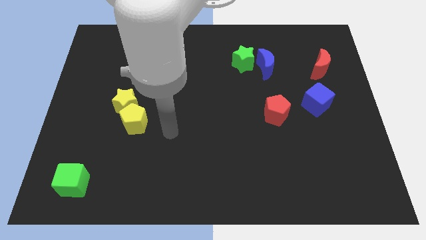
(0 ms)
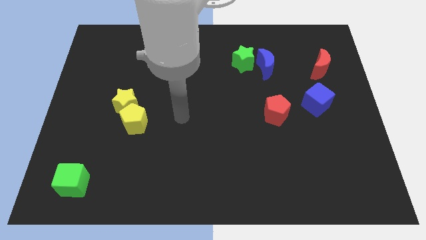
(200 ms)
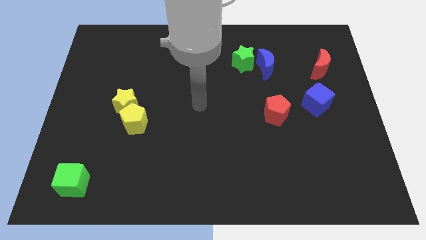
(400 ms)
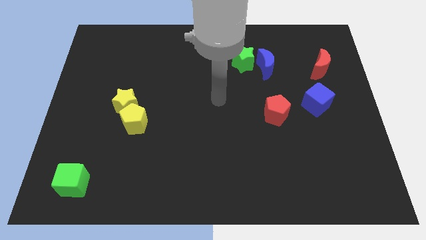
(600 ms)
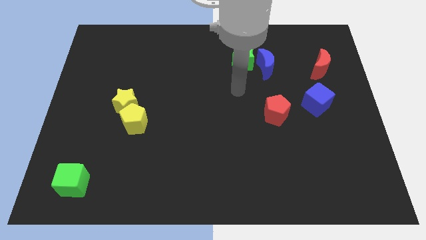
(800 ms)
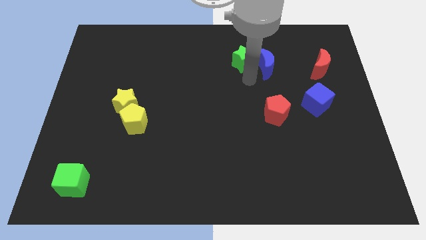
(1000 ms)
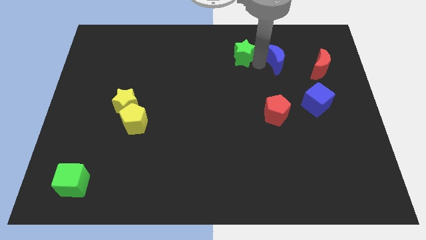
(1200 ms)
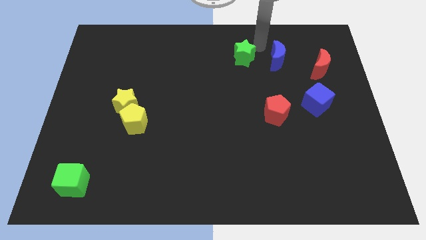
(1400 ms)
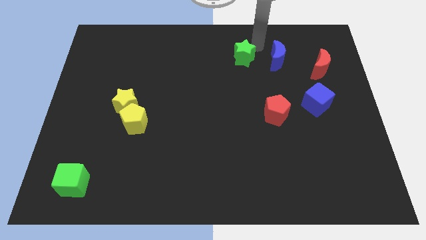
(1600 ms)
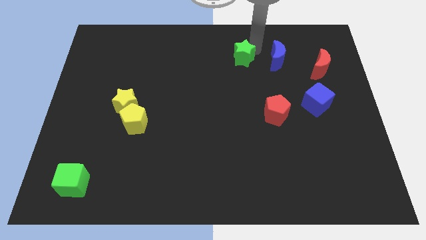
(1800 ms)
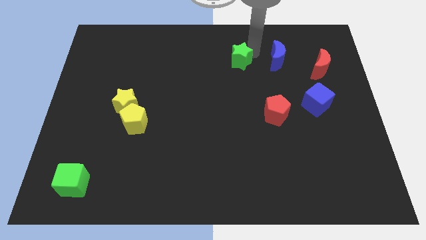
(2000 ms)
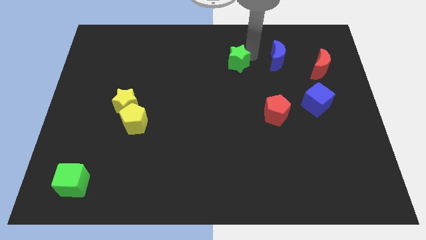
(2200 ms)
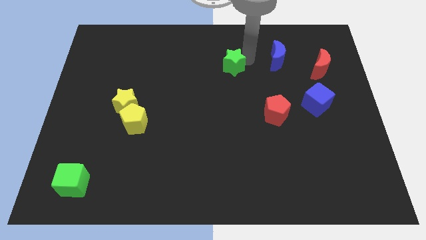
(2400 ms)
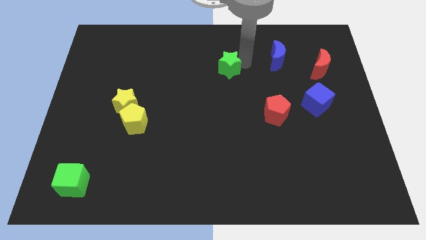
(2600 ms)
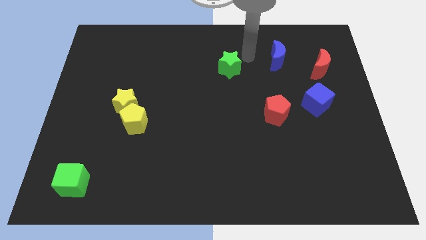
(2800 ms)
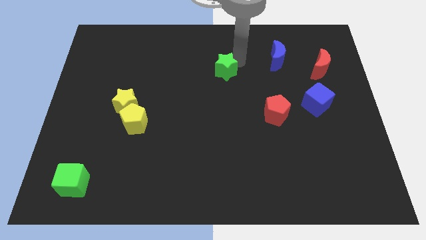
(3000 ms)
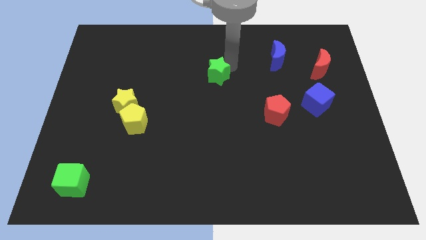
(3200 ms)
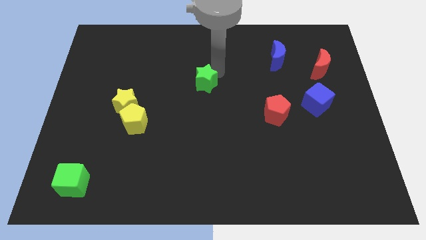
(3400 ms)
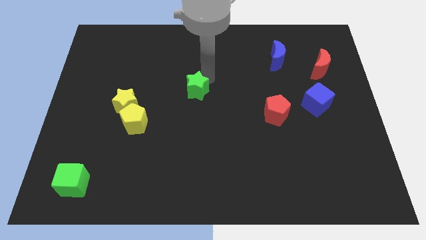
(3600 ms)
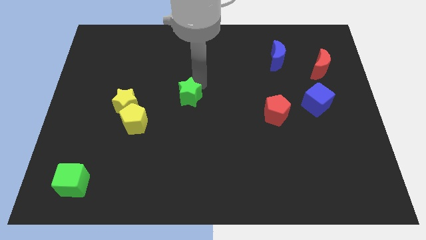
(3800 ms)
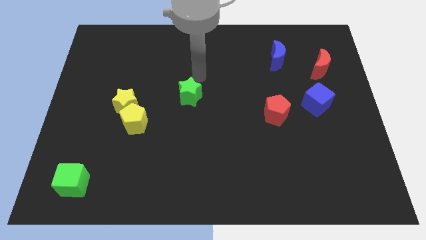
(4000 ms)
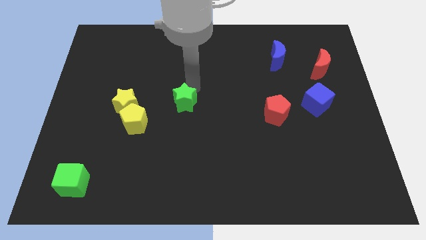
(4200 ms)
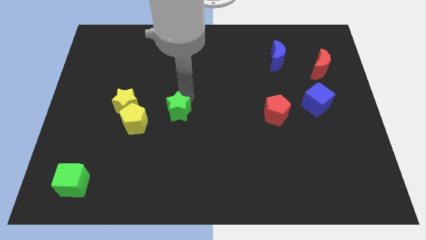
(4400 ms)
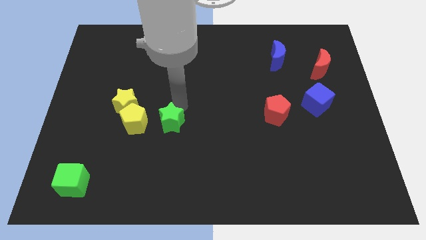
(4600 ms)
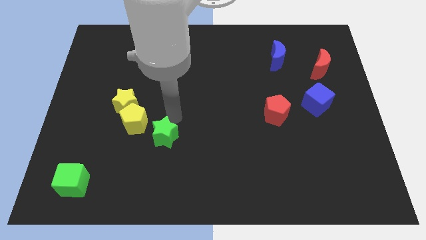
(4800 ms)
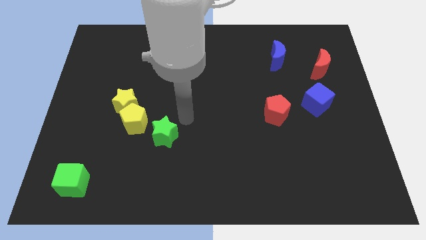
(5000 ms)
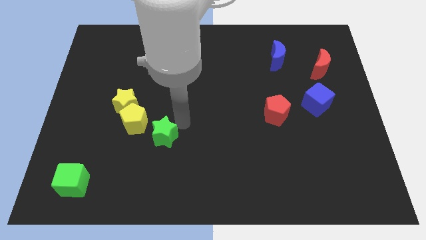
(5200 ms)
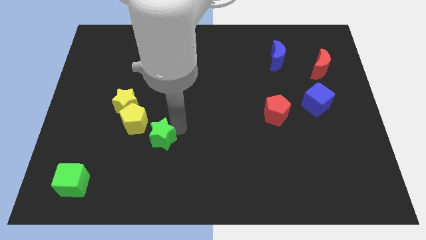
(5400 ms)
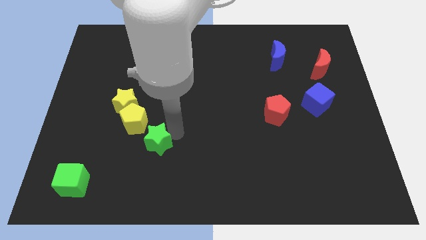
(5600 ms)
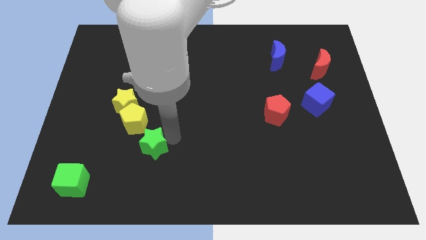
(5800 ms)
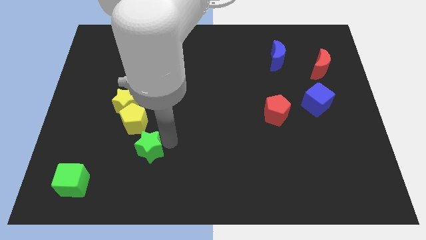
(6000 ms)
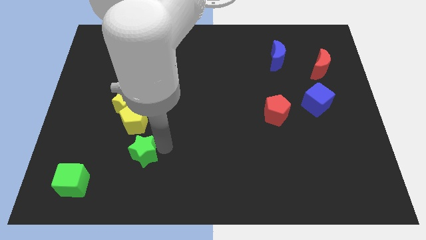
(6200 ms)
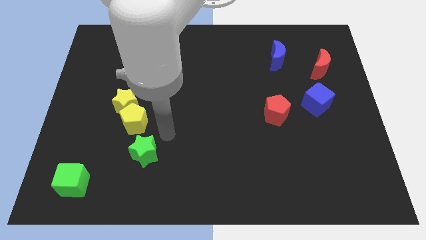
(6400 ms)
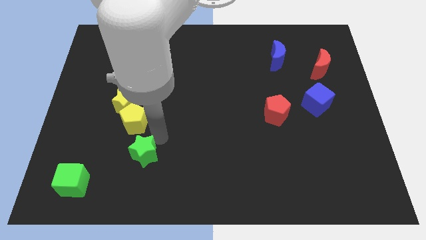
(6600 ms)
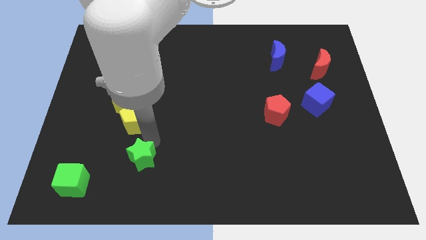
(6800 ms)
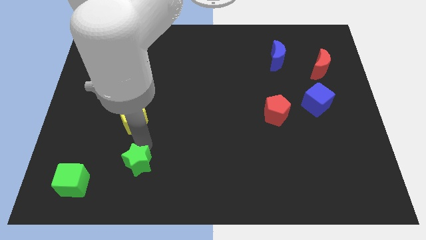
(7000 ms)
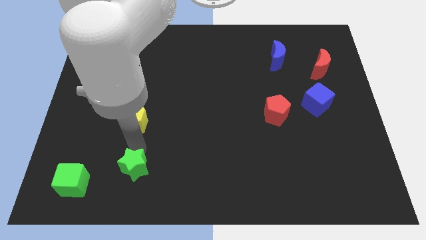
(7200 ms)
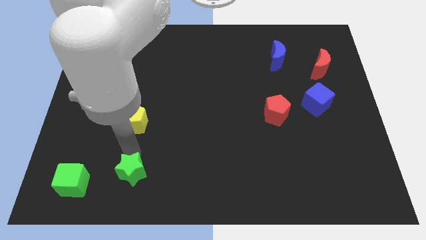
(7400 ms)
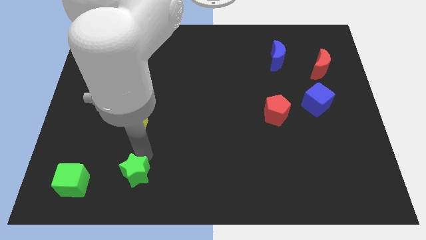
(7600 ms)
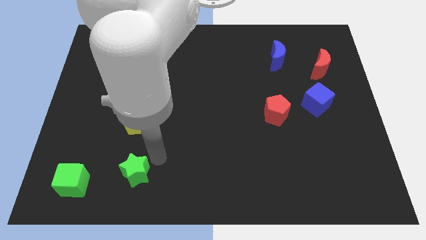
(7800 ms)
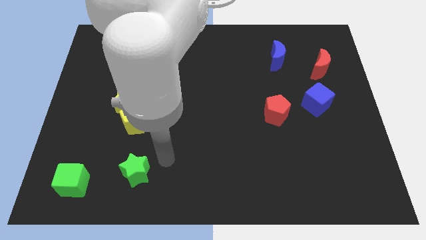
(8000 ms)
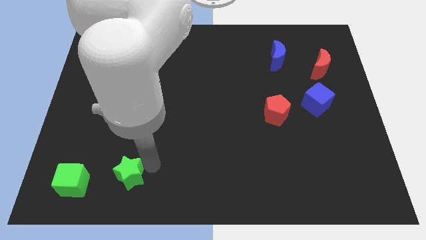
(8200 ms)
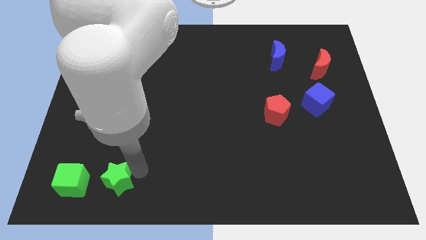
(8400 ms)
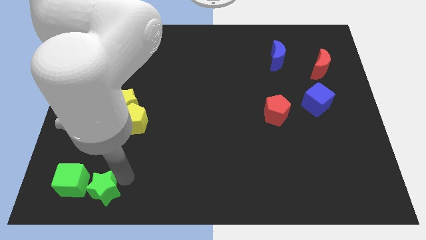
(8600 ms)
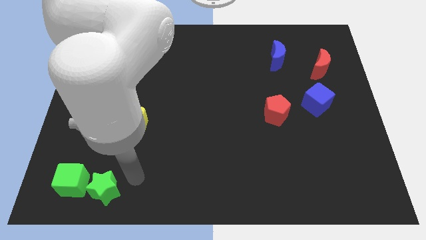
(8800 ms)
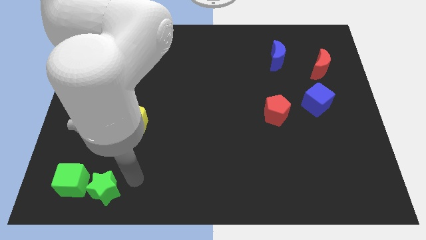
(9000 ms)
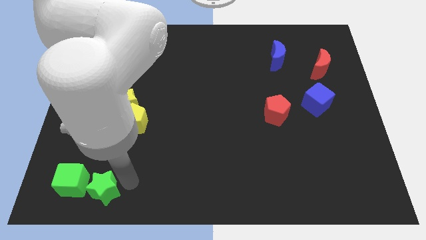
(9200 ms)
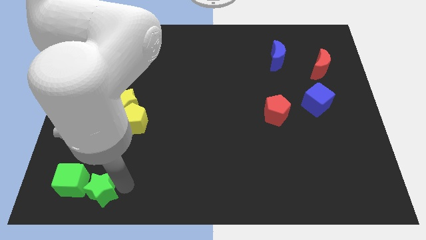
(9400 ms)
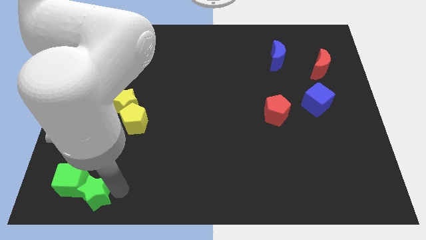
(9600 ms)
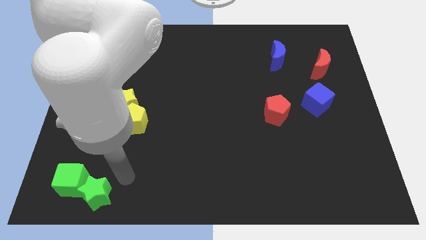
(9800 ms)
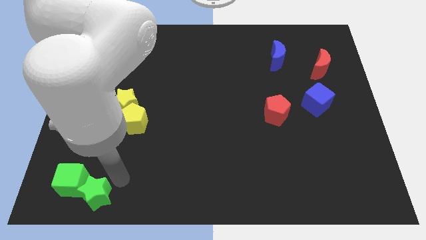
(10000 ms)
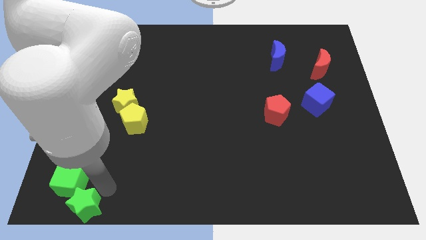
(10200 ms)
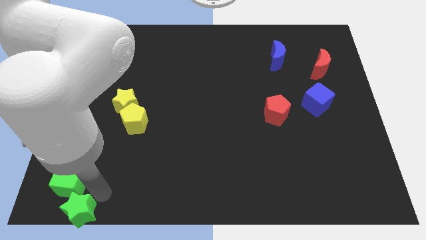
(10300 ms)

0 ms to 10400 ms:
move the green star to the lower left corner
